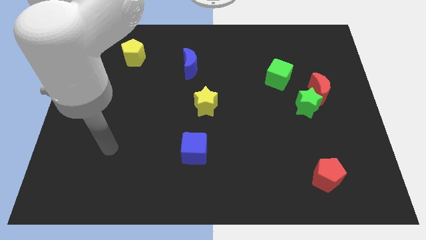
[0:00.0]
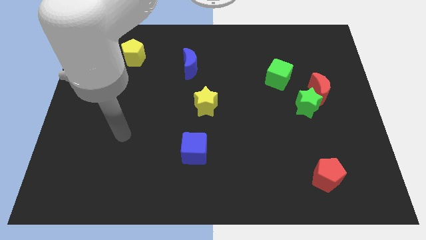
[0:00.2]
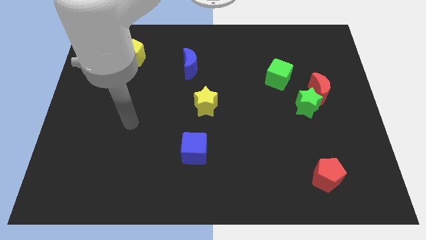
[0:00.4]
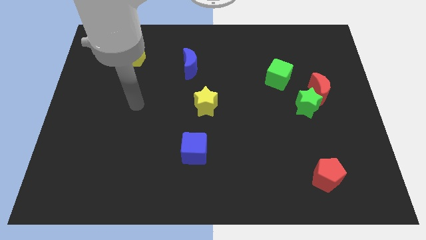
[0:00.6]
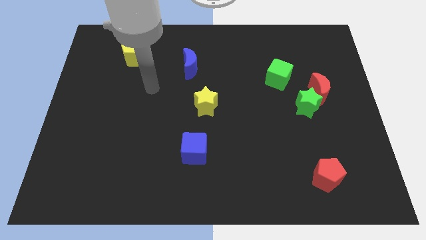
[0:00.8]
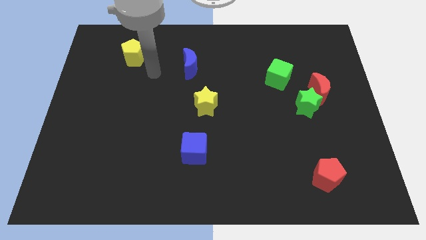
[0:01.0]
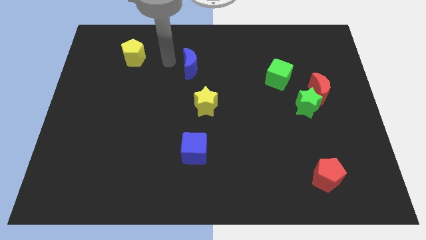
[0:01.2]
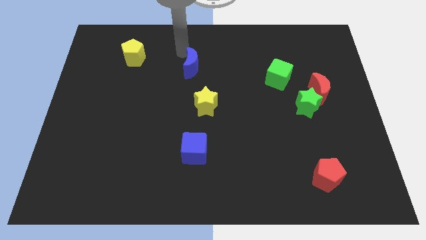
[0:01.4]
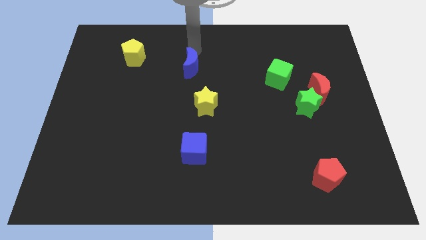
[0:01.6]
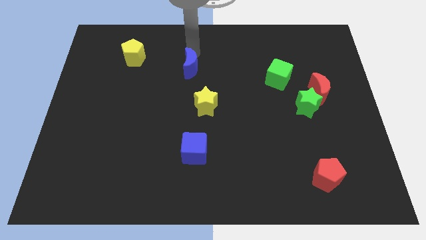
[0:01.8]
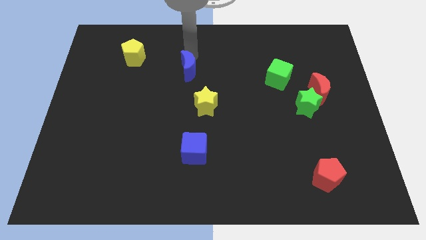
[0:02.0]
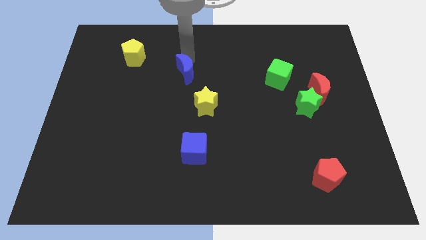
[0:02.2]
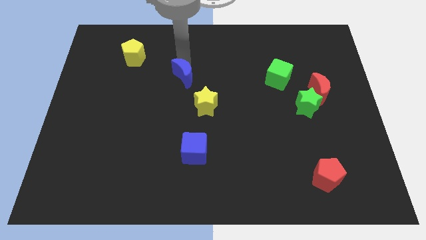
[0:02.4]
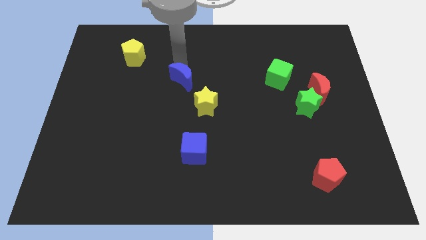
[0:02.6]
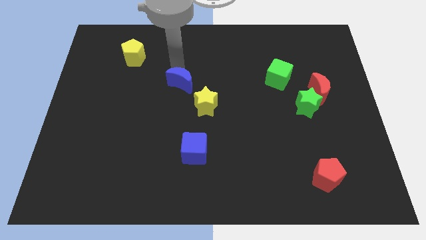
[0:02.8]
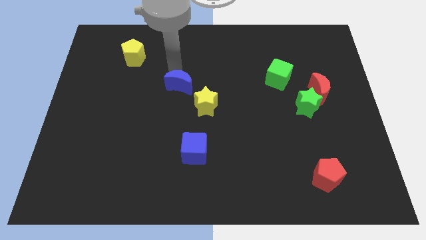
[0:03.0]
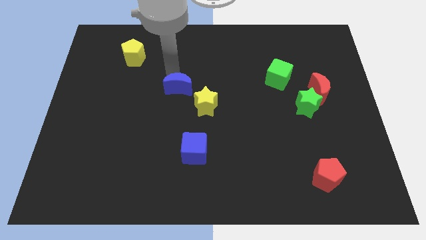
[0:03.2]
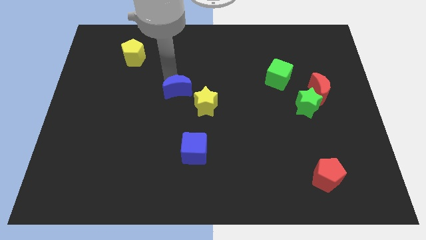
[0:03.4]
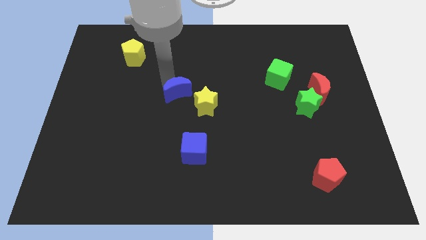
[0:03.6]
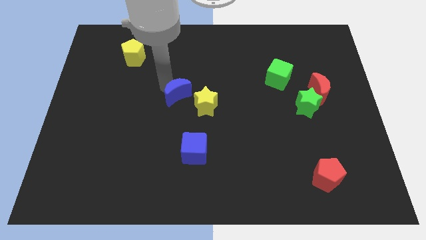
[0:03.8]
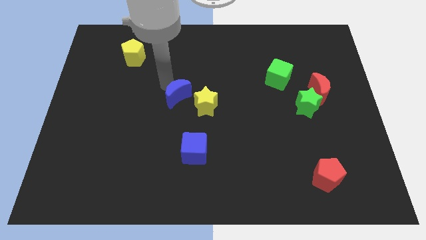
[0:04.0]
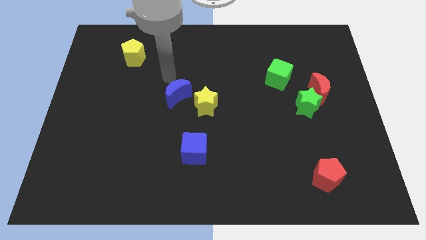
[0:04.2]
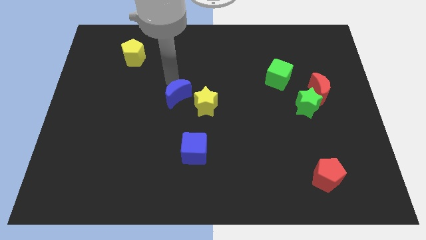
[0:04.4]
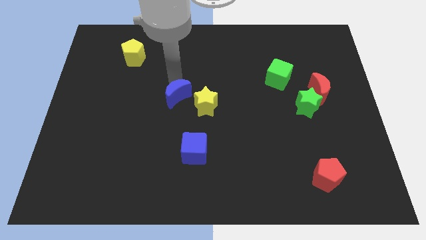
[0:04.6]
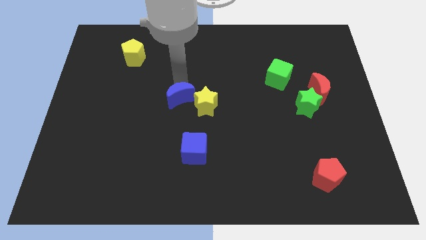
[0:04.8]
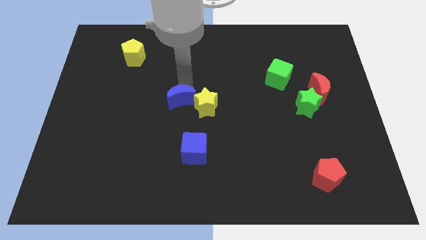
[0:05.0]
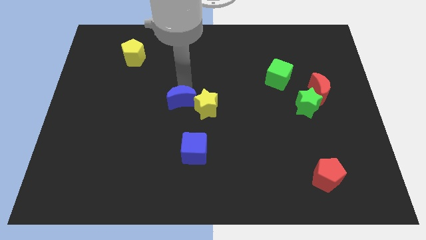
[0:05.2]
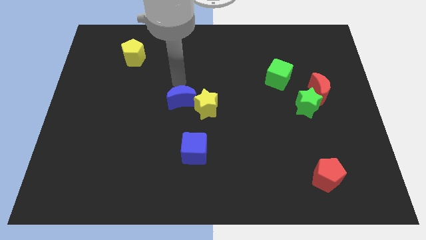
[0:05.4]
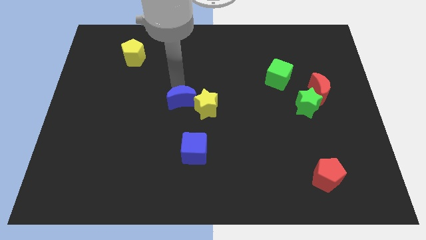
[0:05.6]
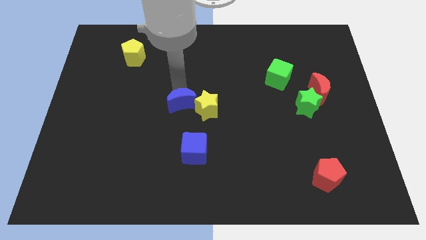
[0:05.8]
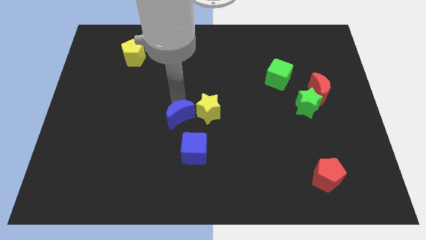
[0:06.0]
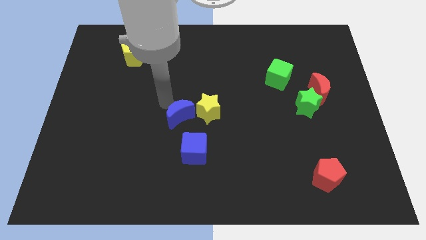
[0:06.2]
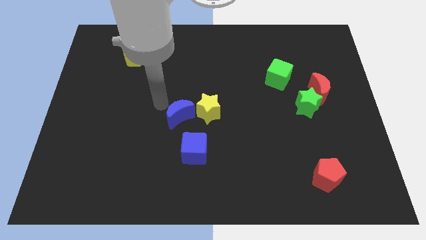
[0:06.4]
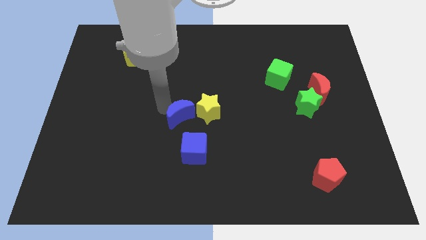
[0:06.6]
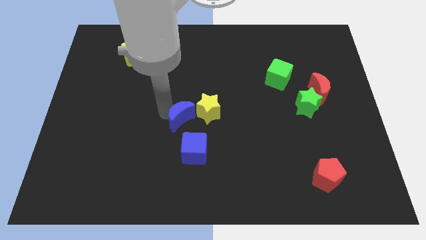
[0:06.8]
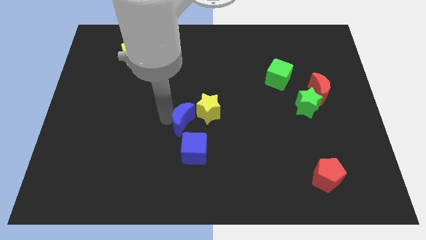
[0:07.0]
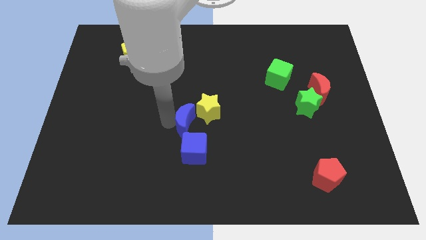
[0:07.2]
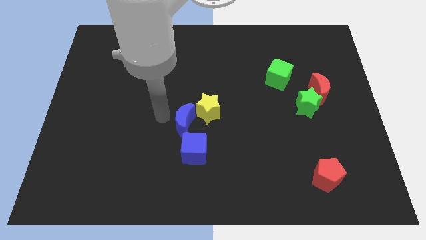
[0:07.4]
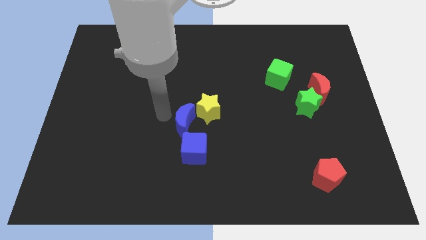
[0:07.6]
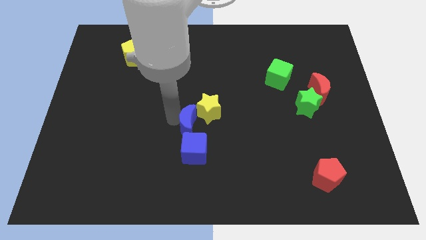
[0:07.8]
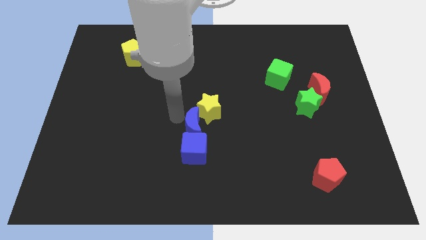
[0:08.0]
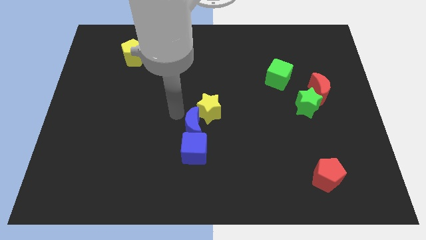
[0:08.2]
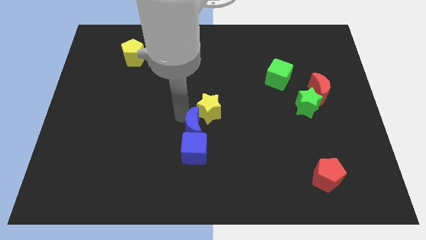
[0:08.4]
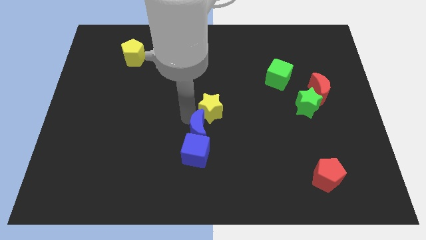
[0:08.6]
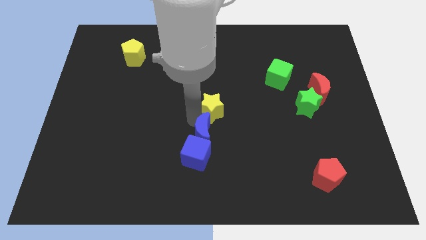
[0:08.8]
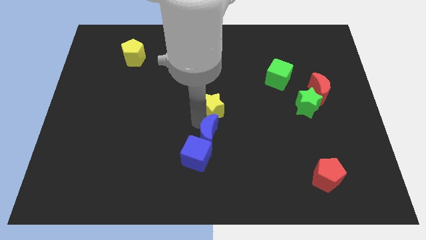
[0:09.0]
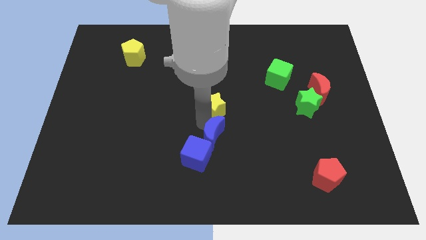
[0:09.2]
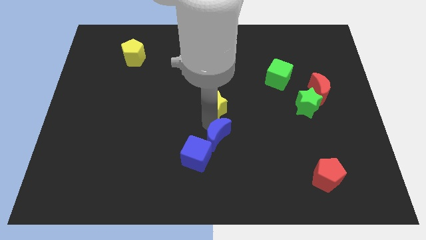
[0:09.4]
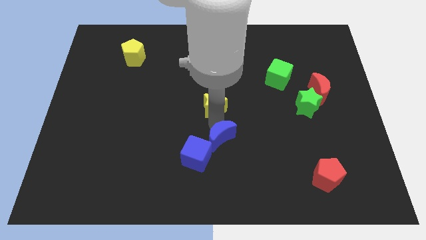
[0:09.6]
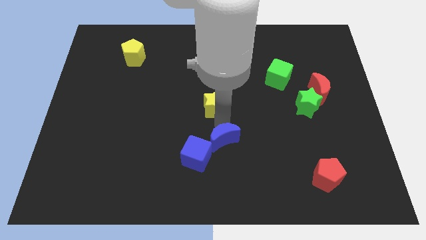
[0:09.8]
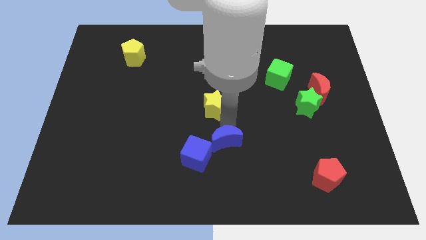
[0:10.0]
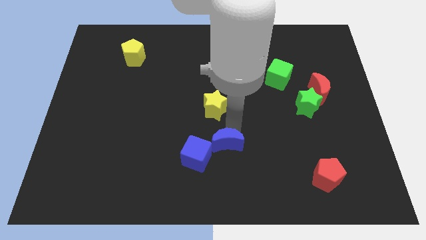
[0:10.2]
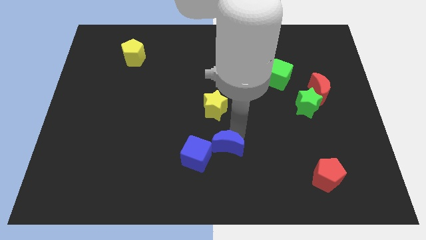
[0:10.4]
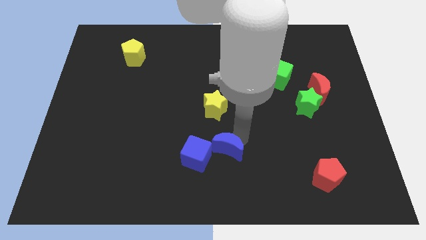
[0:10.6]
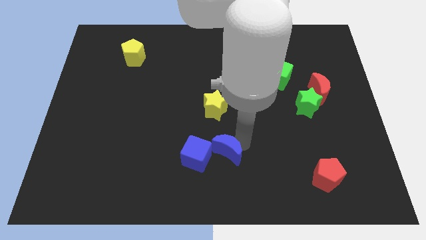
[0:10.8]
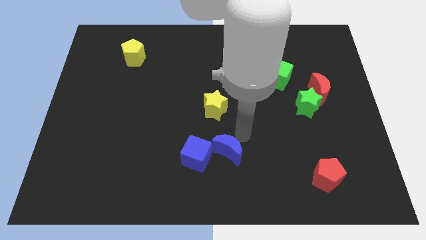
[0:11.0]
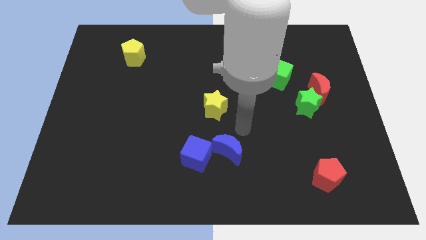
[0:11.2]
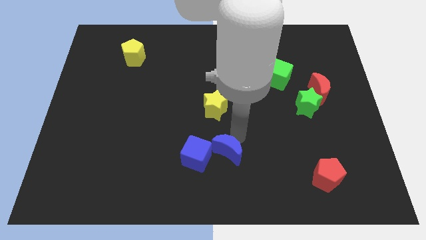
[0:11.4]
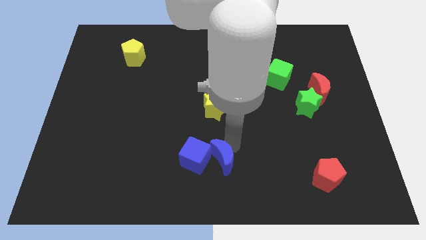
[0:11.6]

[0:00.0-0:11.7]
push the blue moon to the bottom

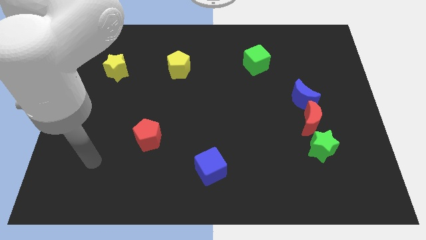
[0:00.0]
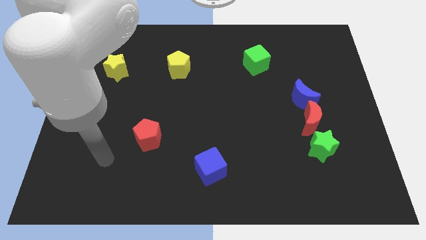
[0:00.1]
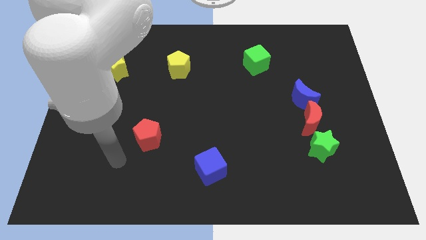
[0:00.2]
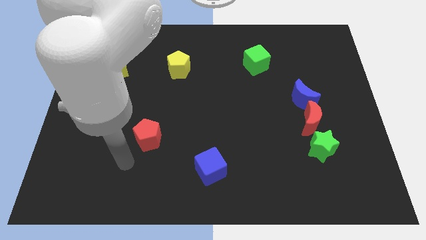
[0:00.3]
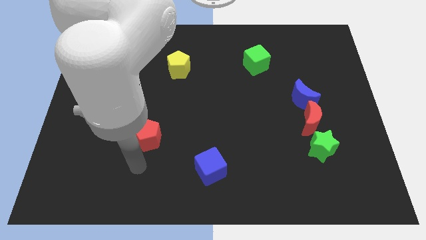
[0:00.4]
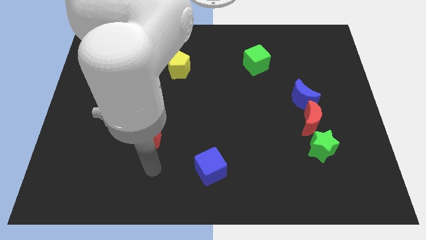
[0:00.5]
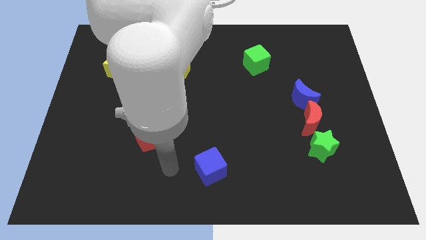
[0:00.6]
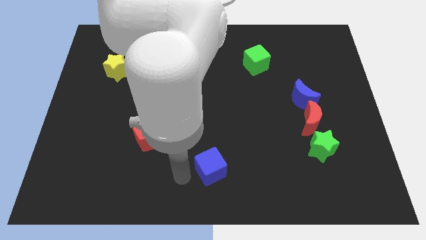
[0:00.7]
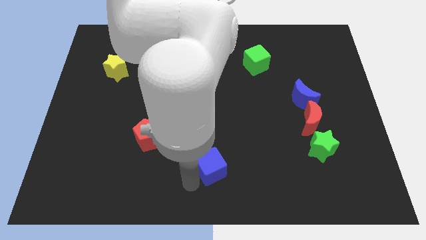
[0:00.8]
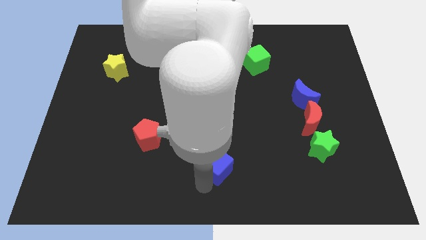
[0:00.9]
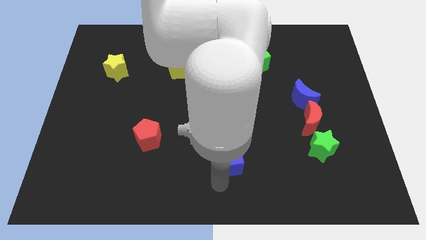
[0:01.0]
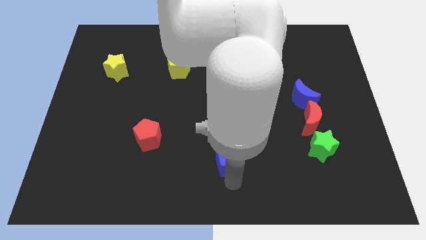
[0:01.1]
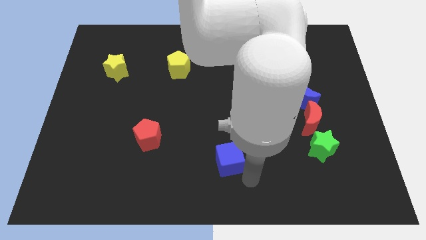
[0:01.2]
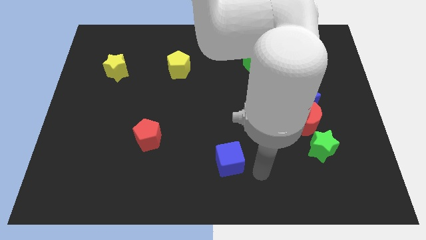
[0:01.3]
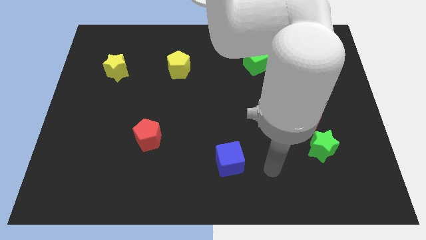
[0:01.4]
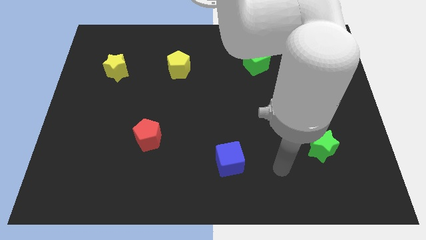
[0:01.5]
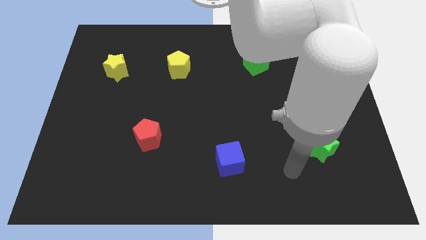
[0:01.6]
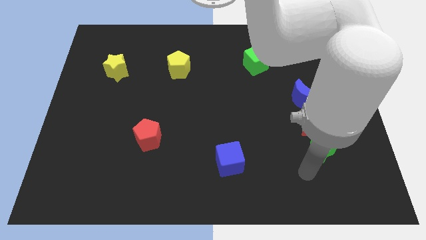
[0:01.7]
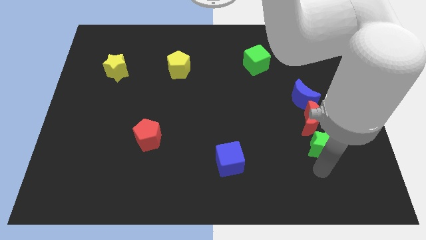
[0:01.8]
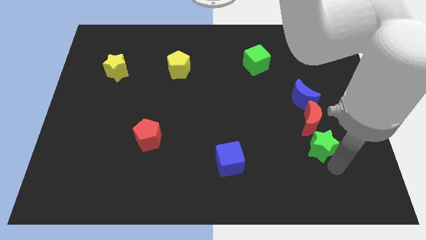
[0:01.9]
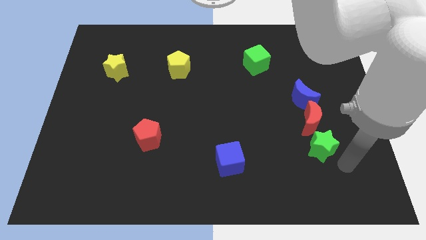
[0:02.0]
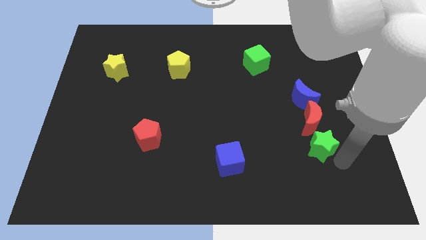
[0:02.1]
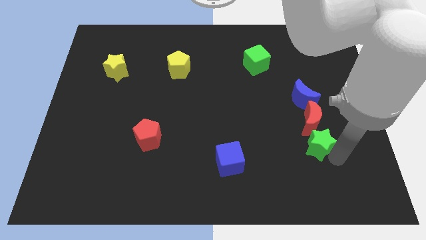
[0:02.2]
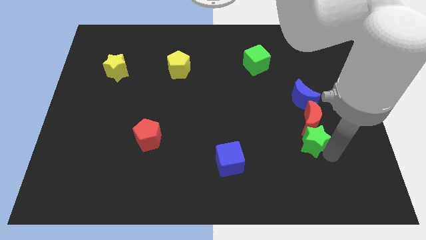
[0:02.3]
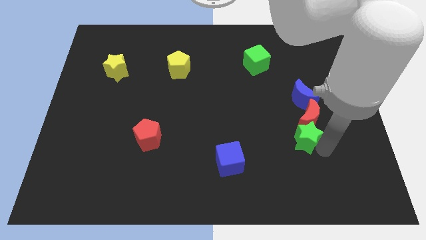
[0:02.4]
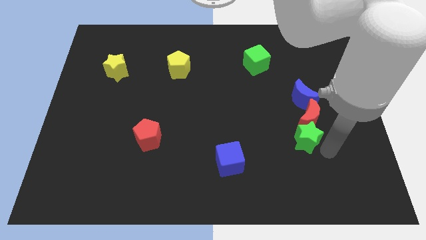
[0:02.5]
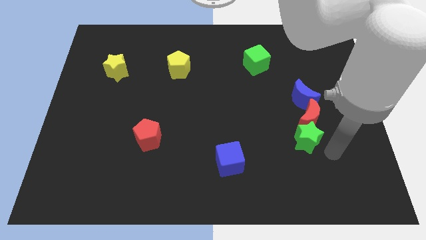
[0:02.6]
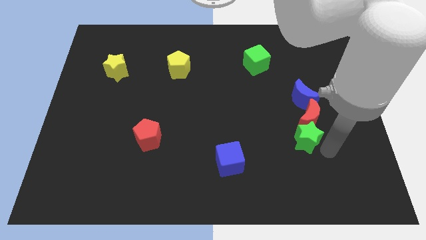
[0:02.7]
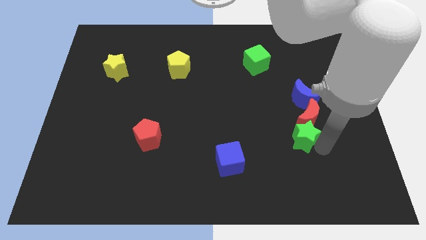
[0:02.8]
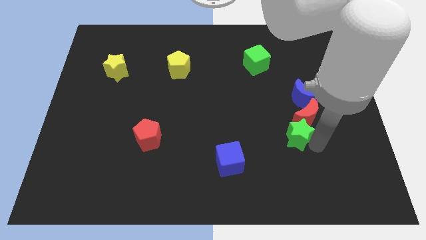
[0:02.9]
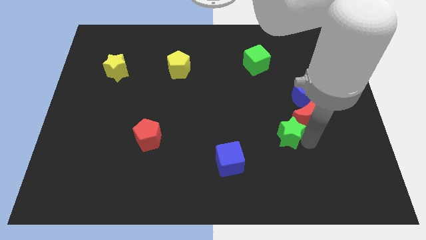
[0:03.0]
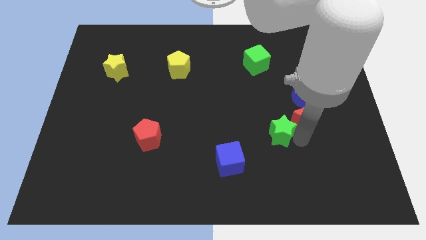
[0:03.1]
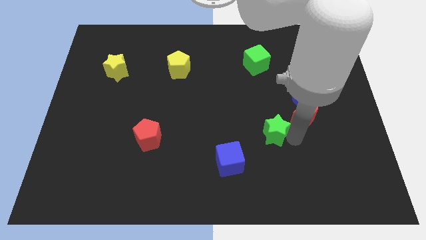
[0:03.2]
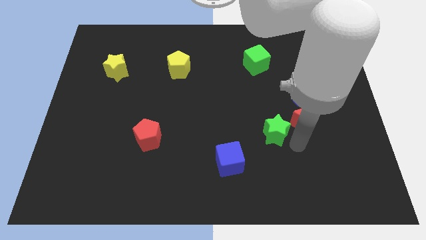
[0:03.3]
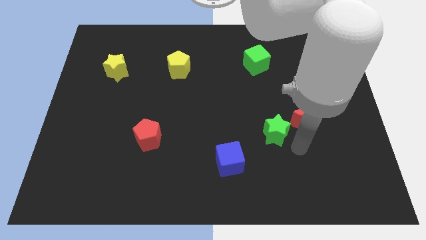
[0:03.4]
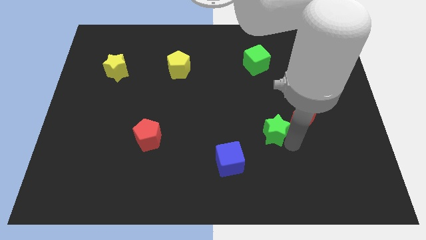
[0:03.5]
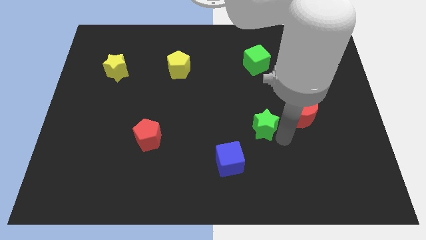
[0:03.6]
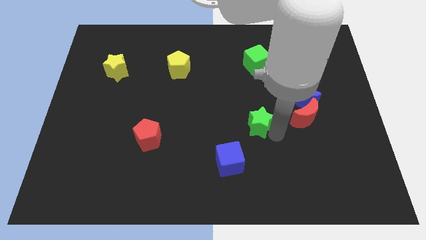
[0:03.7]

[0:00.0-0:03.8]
put the green star to the middle
